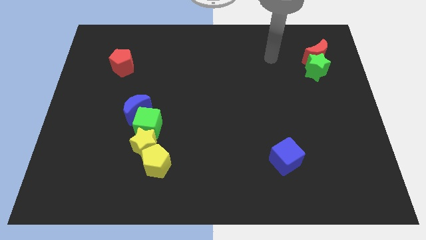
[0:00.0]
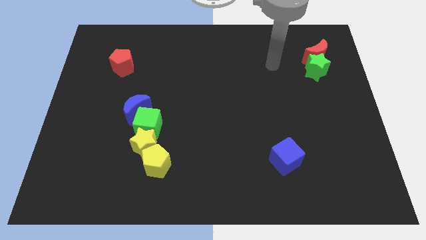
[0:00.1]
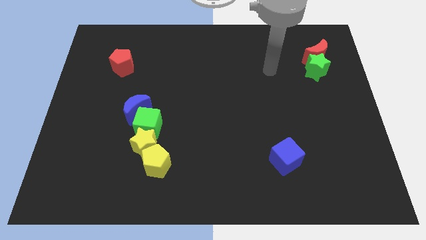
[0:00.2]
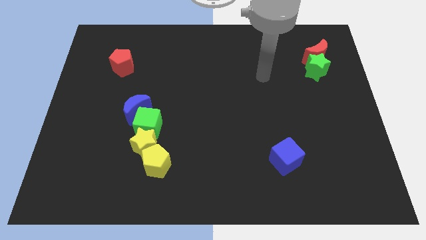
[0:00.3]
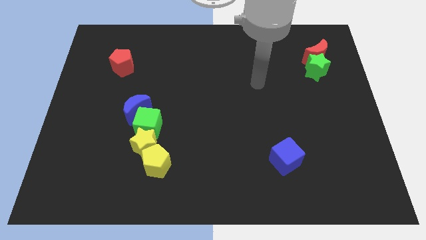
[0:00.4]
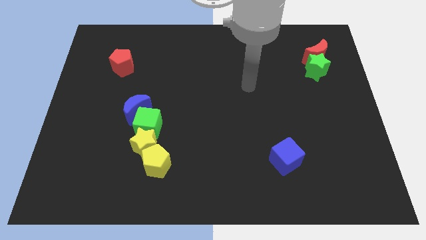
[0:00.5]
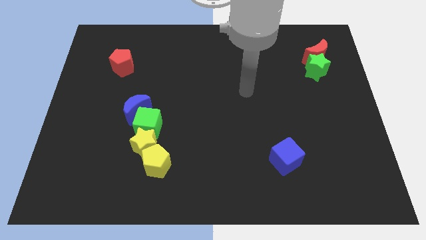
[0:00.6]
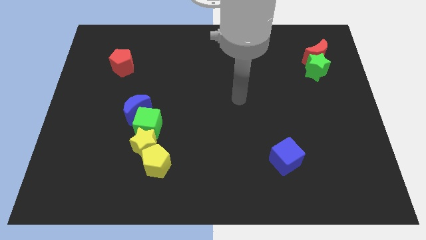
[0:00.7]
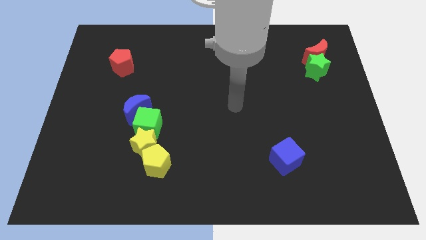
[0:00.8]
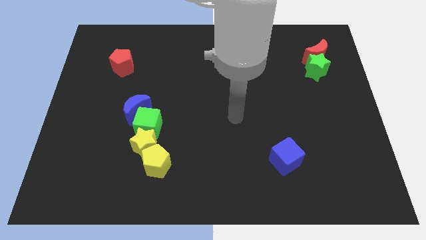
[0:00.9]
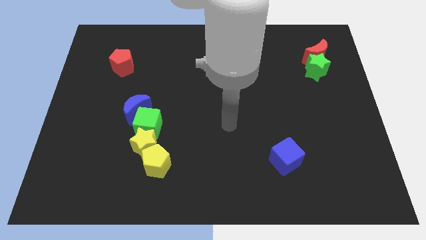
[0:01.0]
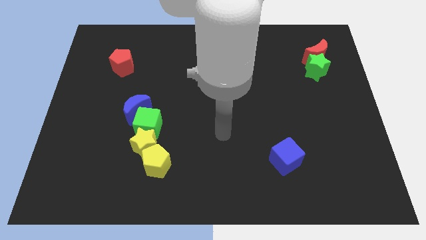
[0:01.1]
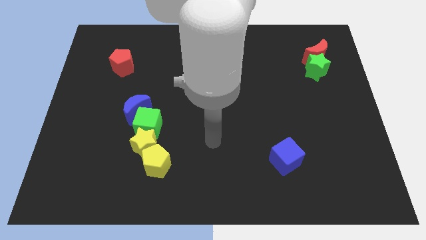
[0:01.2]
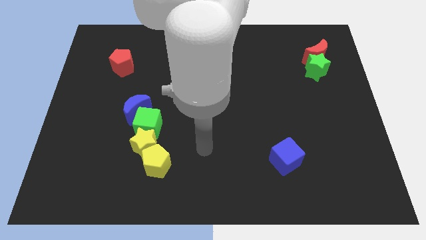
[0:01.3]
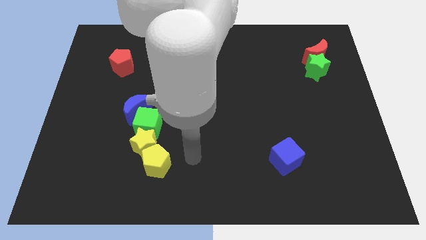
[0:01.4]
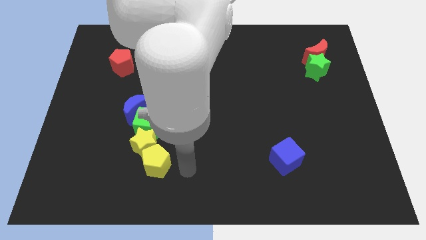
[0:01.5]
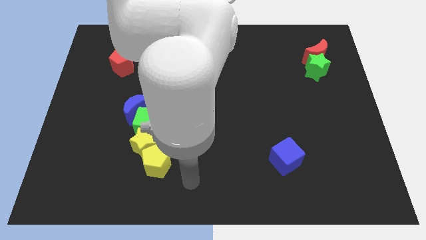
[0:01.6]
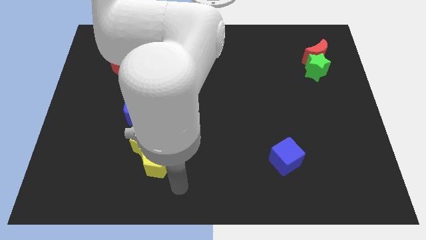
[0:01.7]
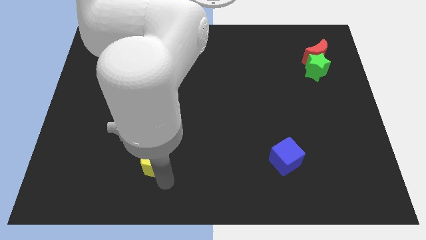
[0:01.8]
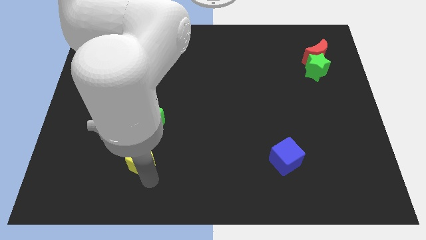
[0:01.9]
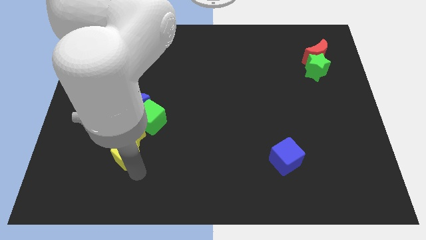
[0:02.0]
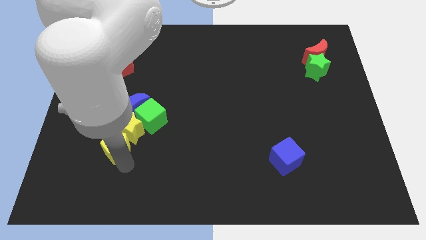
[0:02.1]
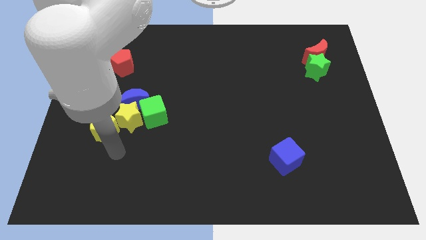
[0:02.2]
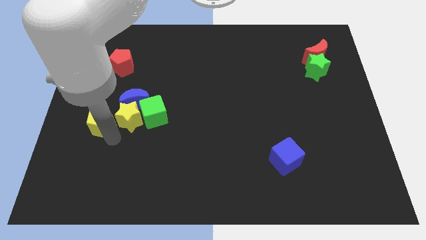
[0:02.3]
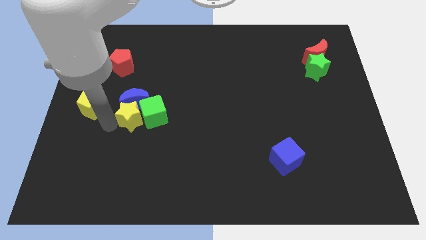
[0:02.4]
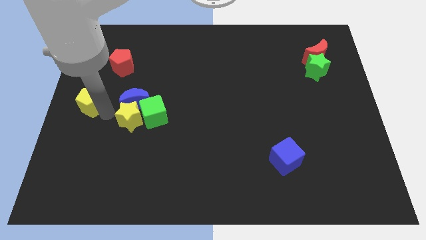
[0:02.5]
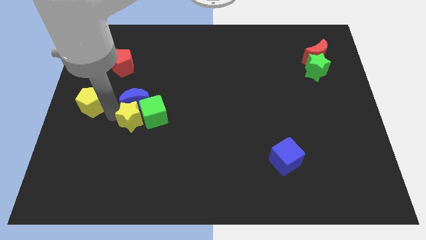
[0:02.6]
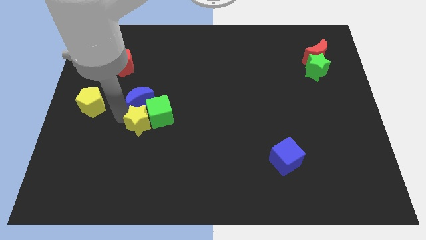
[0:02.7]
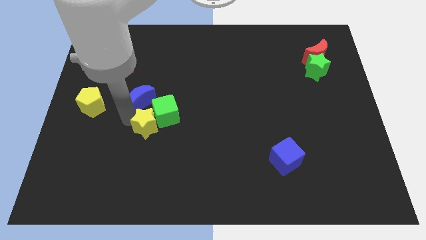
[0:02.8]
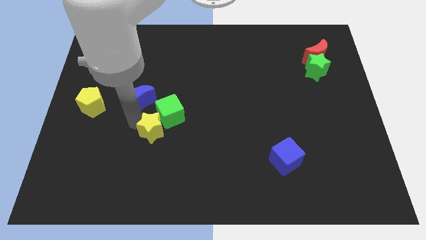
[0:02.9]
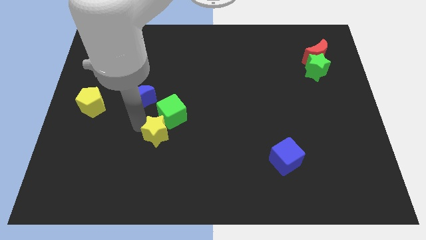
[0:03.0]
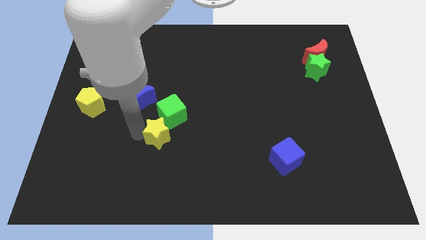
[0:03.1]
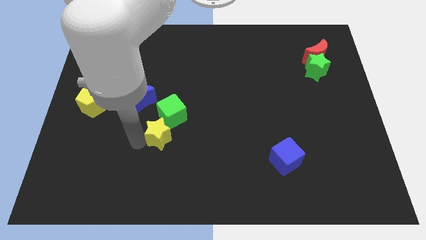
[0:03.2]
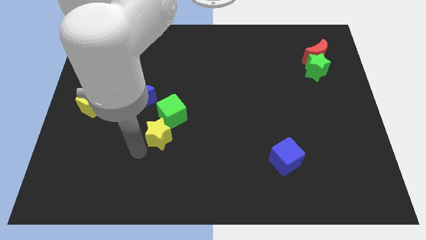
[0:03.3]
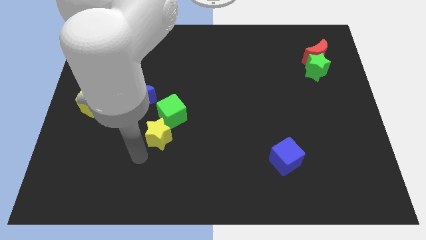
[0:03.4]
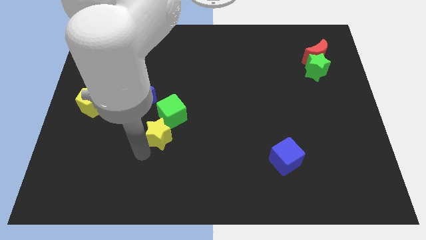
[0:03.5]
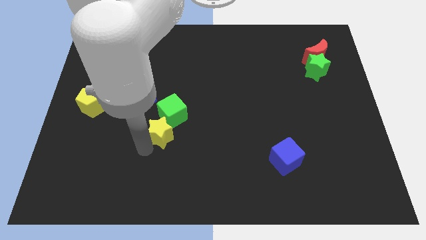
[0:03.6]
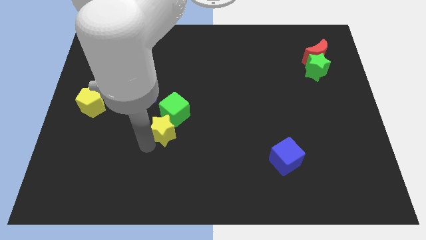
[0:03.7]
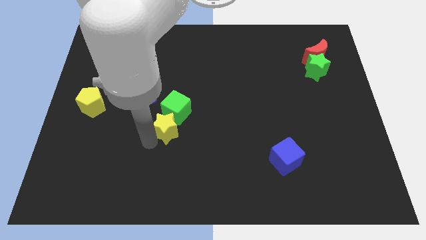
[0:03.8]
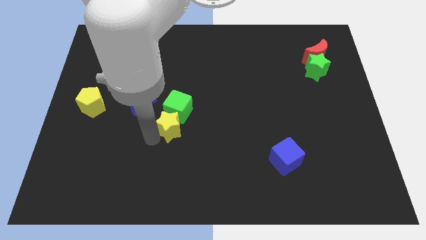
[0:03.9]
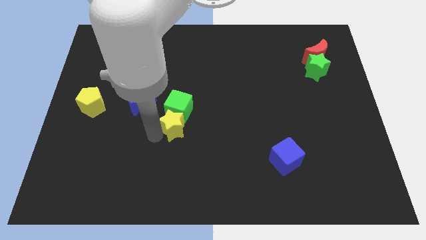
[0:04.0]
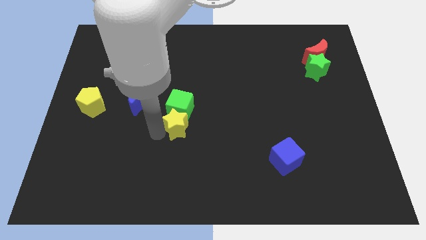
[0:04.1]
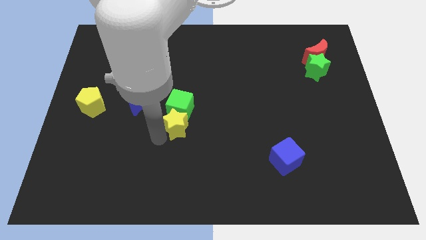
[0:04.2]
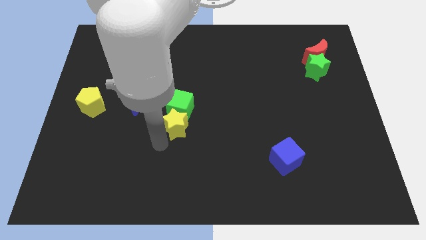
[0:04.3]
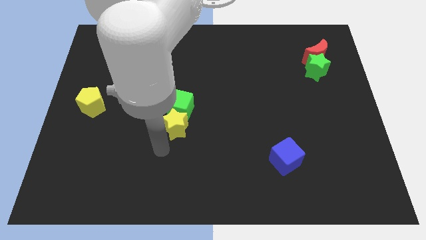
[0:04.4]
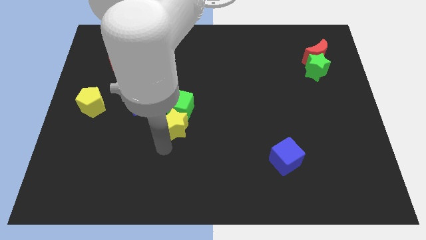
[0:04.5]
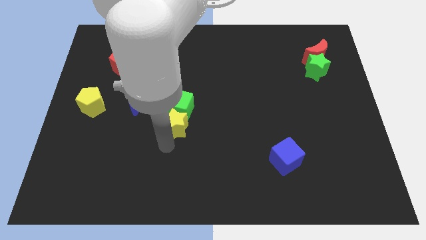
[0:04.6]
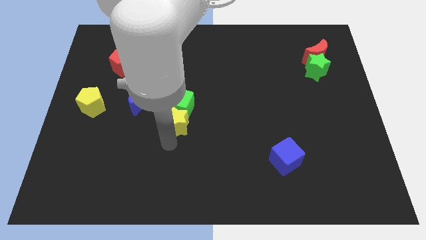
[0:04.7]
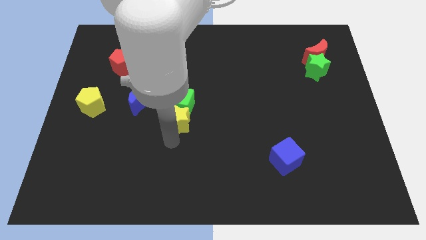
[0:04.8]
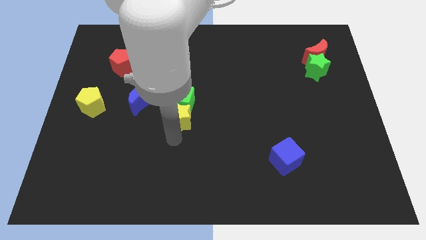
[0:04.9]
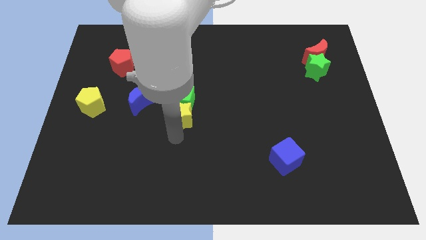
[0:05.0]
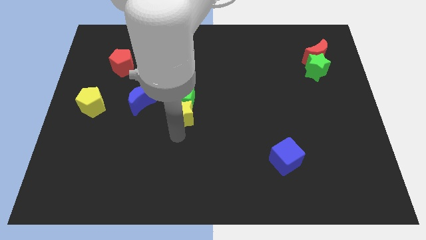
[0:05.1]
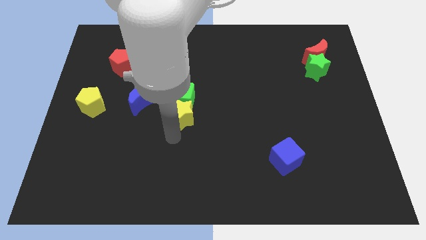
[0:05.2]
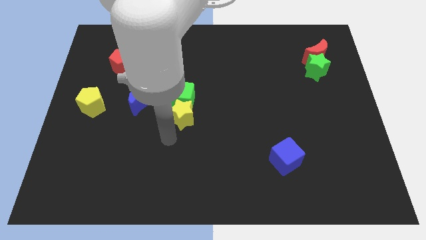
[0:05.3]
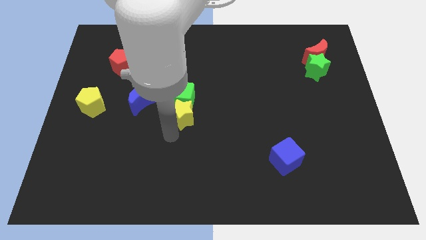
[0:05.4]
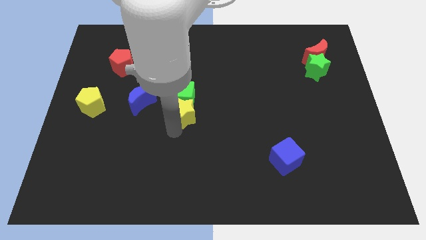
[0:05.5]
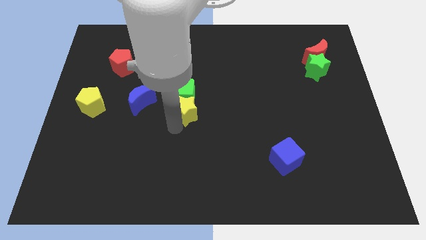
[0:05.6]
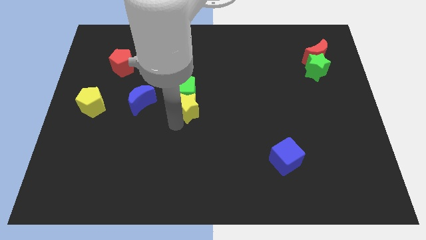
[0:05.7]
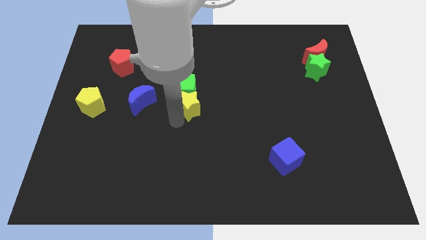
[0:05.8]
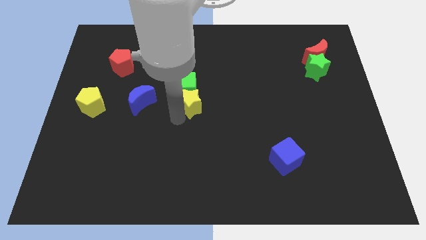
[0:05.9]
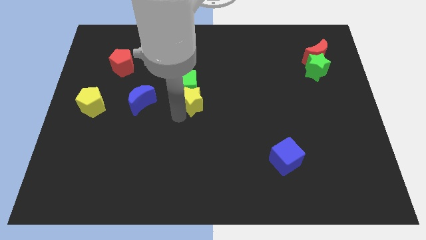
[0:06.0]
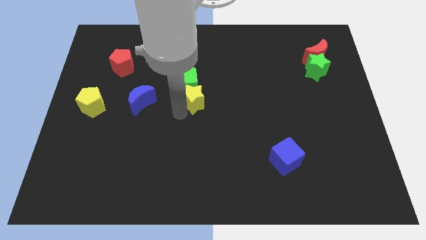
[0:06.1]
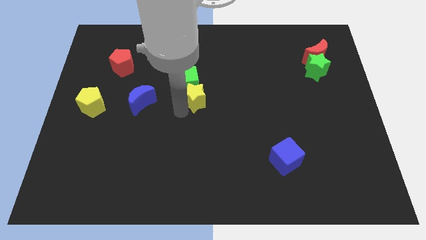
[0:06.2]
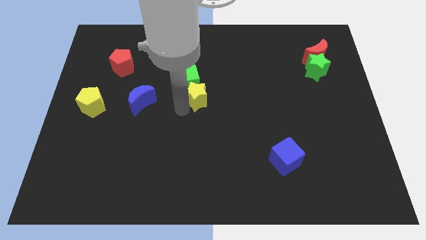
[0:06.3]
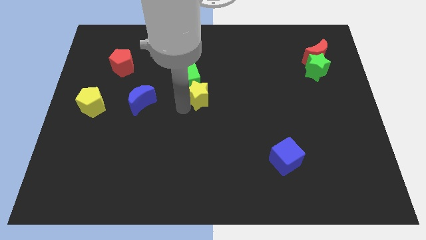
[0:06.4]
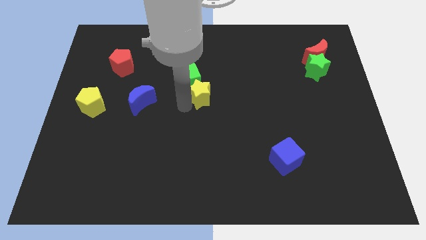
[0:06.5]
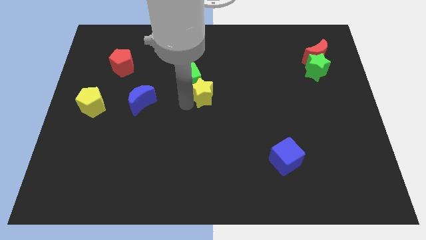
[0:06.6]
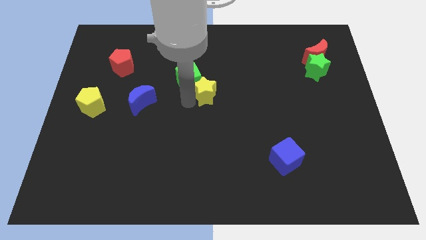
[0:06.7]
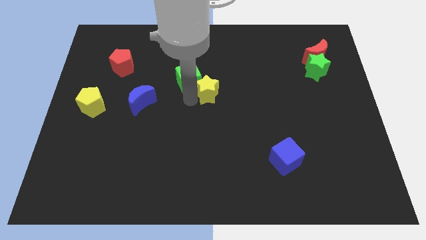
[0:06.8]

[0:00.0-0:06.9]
push the yellow star up and to the right diagonally

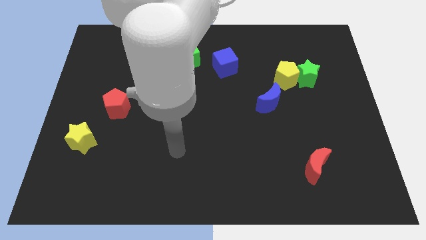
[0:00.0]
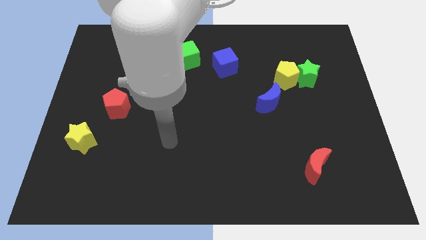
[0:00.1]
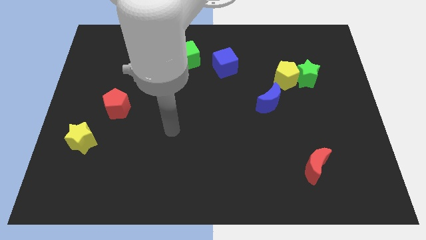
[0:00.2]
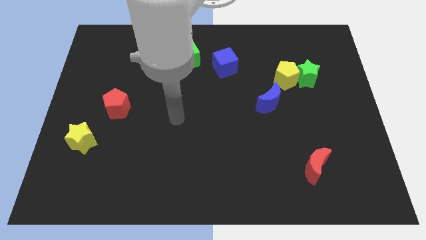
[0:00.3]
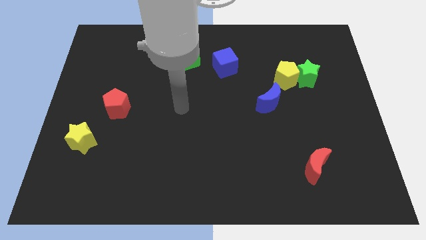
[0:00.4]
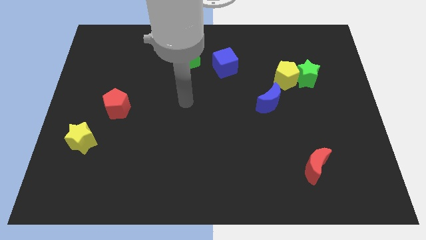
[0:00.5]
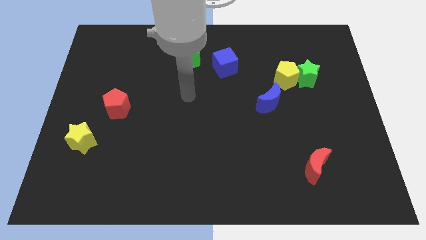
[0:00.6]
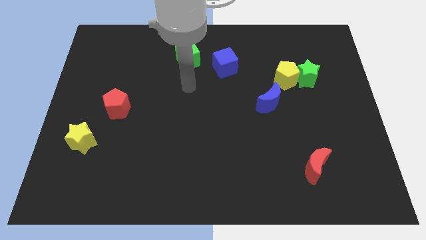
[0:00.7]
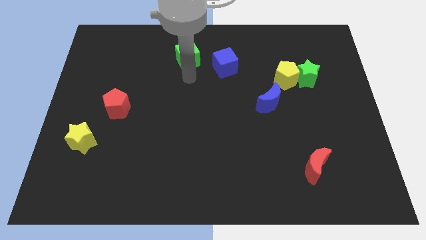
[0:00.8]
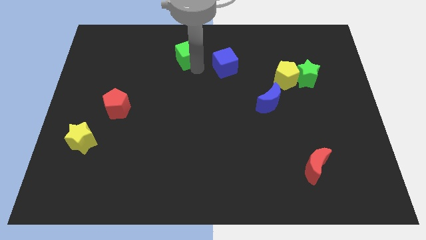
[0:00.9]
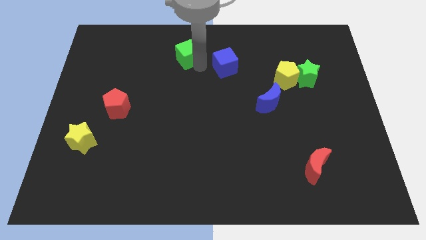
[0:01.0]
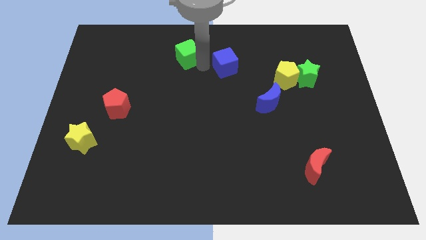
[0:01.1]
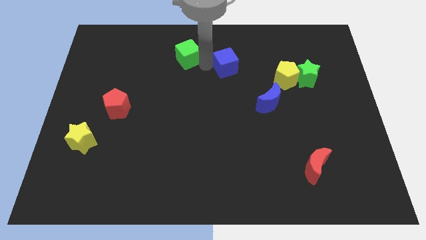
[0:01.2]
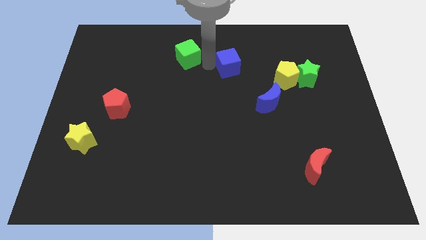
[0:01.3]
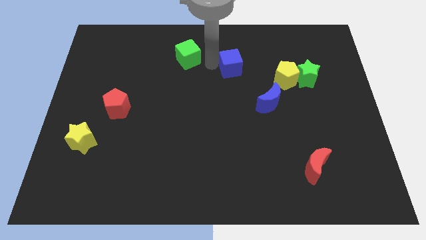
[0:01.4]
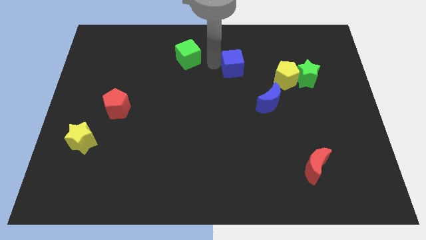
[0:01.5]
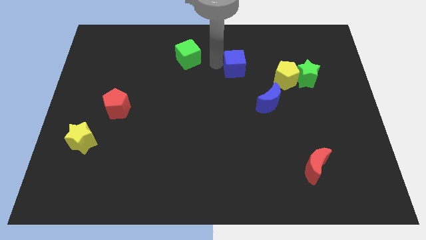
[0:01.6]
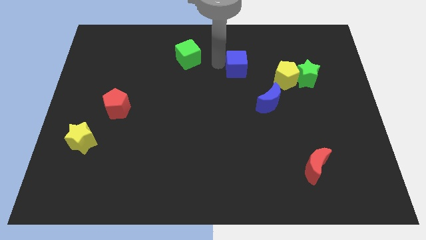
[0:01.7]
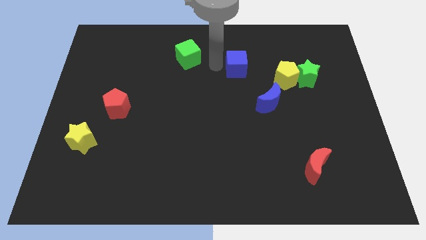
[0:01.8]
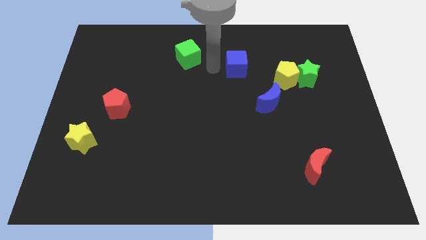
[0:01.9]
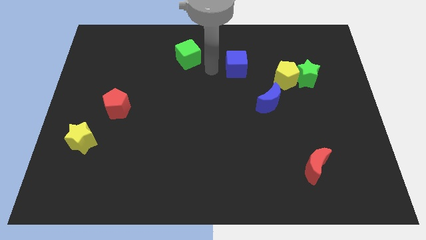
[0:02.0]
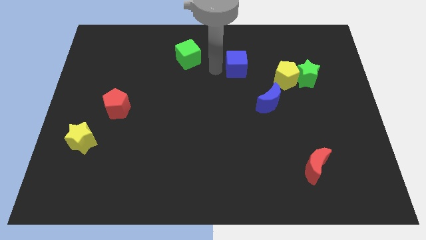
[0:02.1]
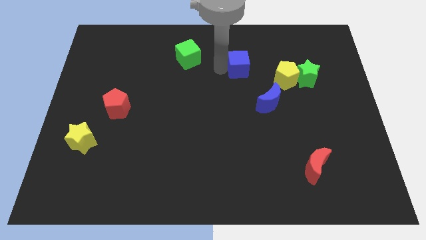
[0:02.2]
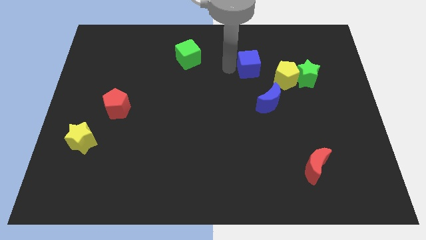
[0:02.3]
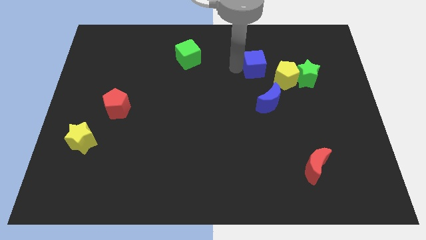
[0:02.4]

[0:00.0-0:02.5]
slide the blue cube somewhat right
